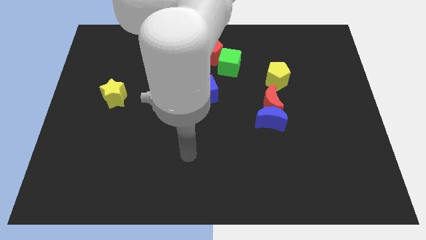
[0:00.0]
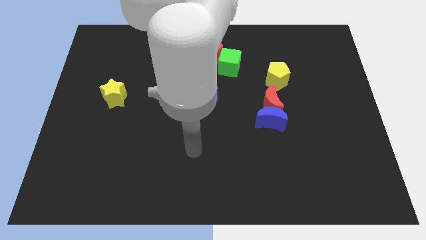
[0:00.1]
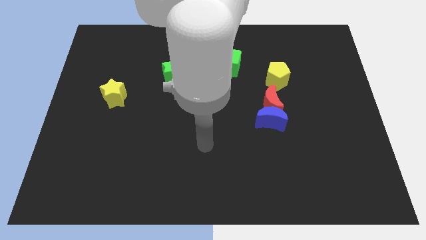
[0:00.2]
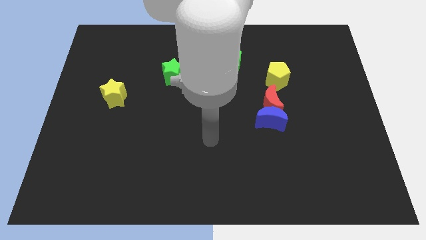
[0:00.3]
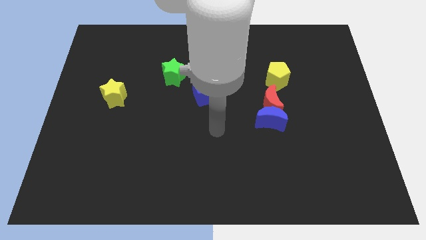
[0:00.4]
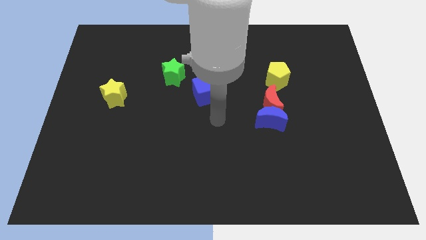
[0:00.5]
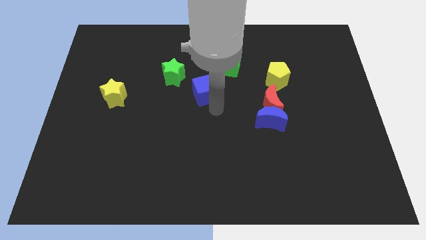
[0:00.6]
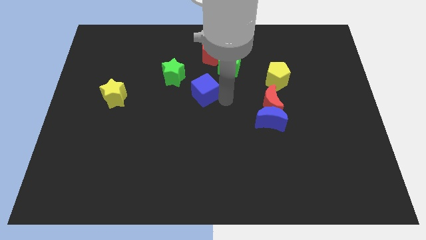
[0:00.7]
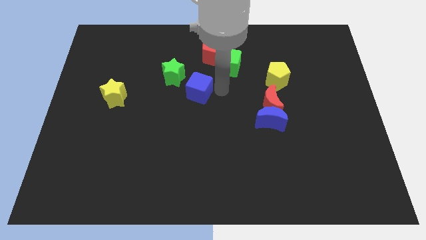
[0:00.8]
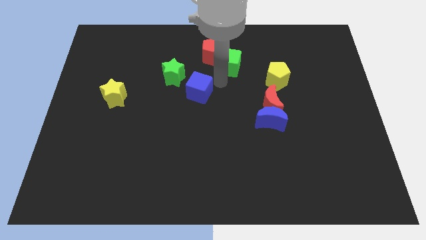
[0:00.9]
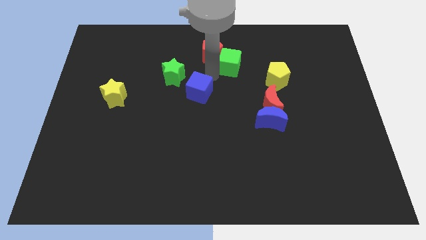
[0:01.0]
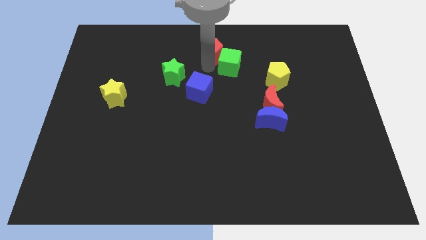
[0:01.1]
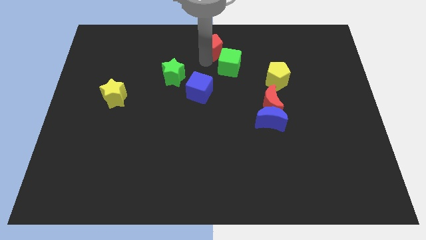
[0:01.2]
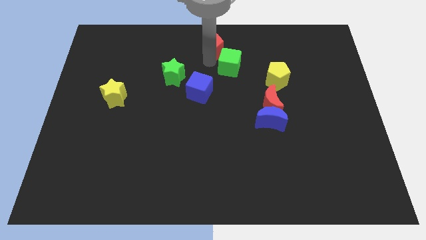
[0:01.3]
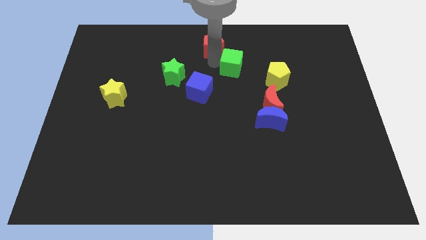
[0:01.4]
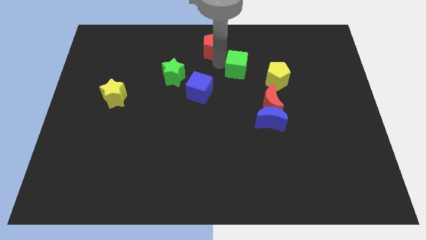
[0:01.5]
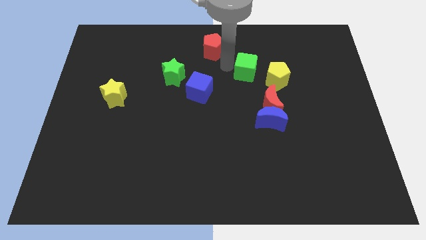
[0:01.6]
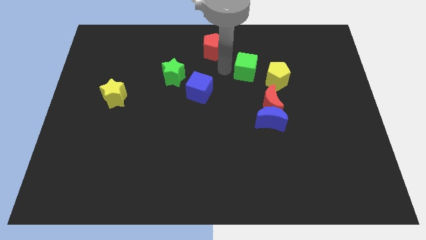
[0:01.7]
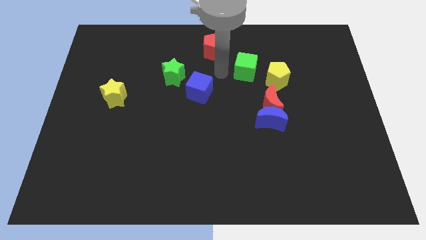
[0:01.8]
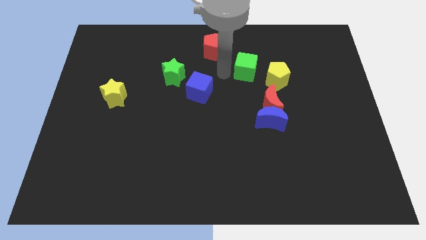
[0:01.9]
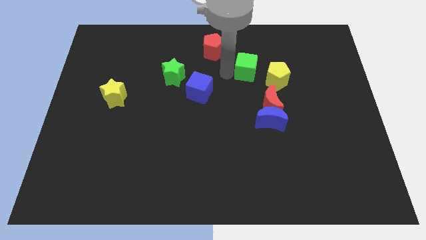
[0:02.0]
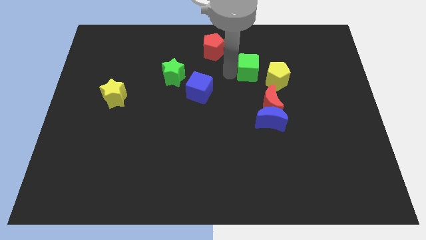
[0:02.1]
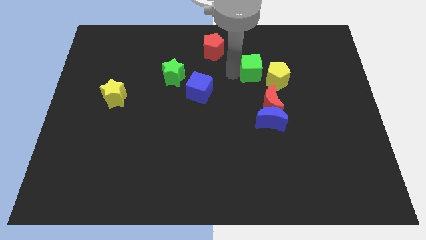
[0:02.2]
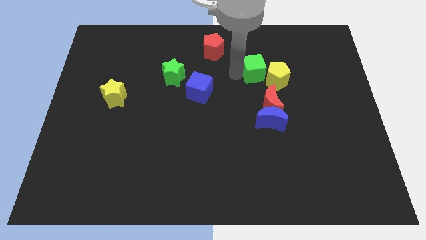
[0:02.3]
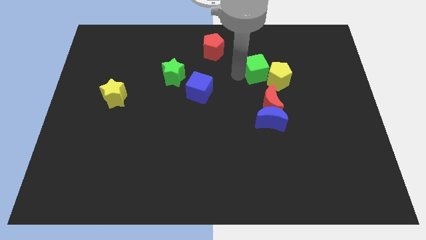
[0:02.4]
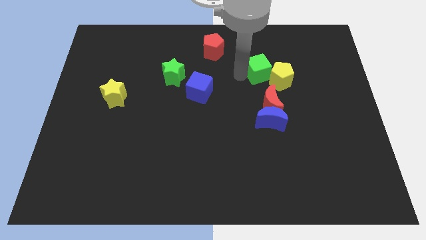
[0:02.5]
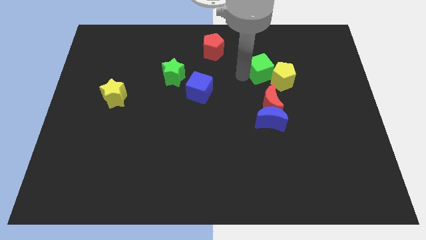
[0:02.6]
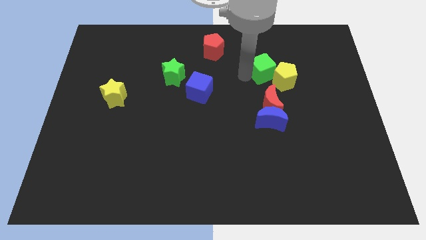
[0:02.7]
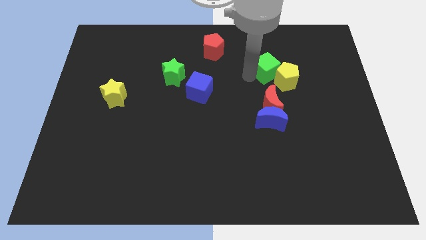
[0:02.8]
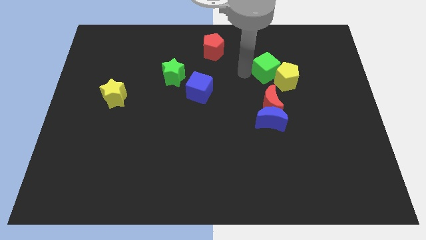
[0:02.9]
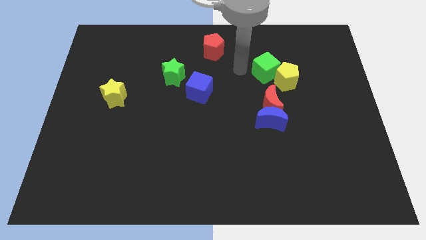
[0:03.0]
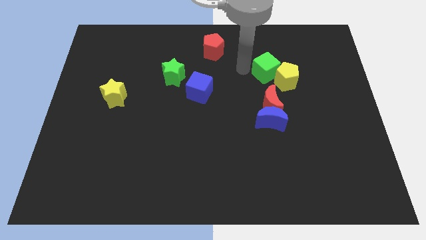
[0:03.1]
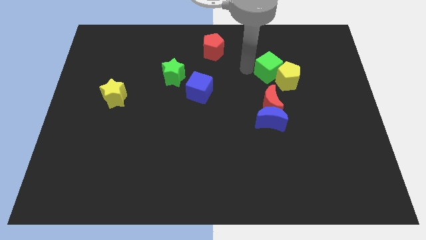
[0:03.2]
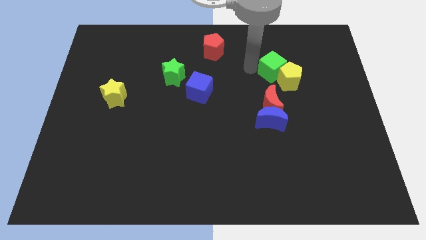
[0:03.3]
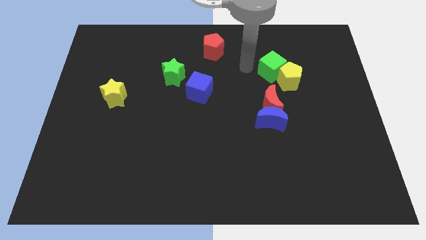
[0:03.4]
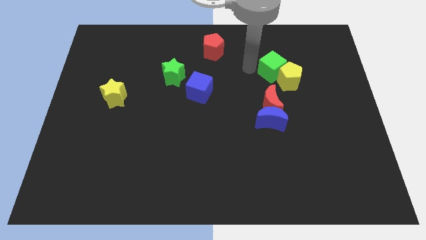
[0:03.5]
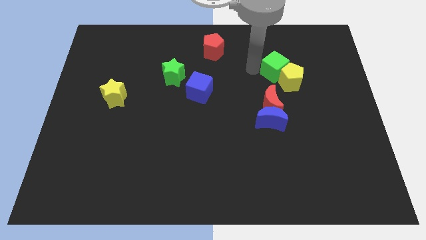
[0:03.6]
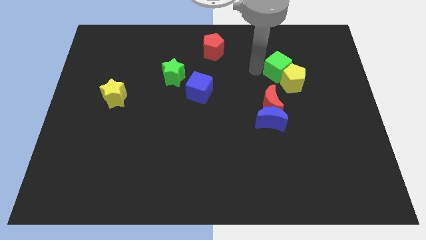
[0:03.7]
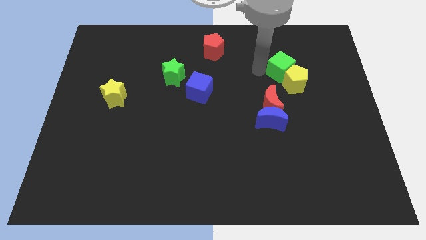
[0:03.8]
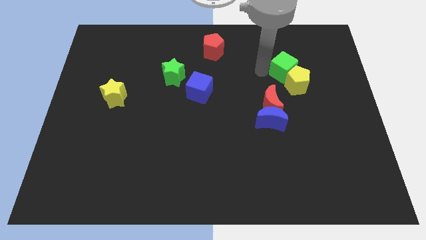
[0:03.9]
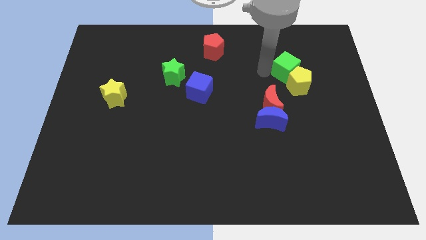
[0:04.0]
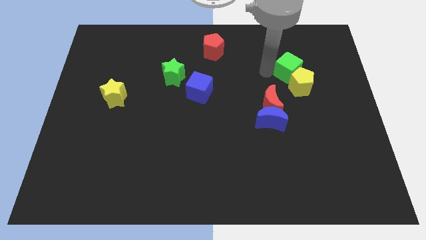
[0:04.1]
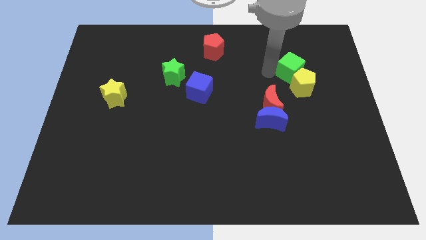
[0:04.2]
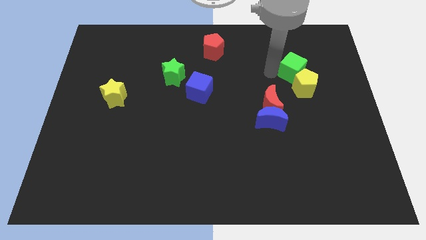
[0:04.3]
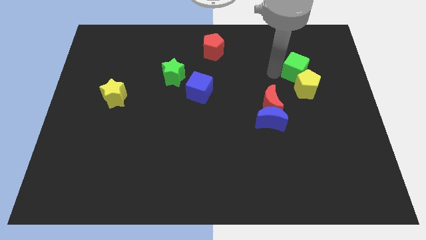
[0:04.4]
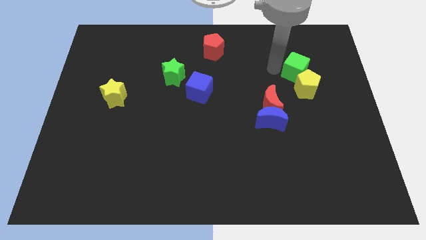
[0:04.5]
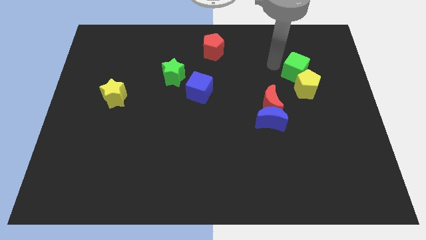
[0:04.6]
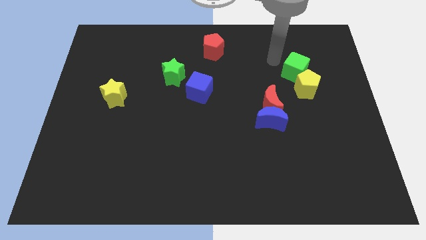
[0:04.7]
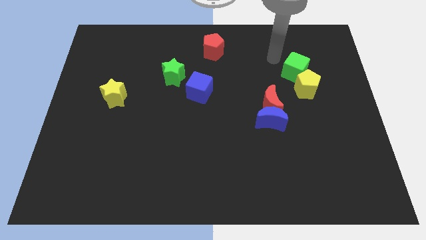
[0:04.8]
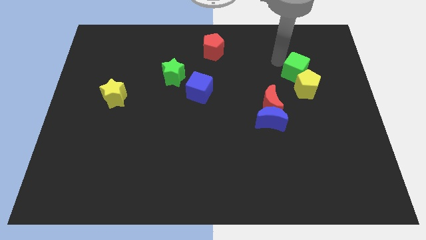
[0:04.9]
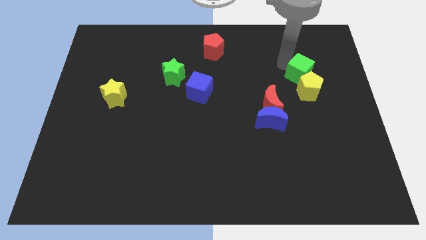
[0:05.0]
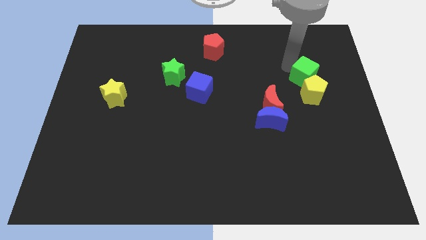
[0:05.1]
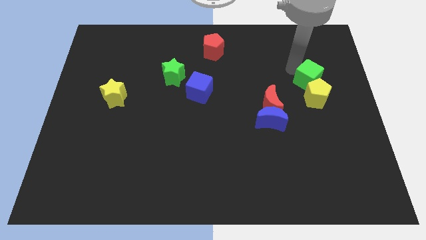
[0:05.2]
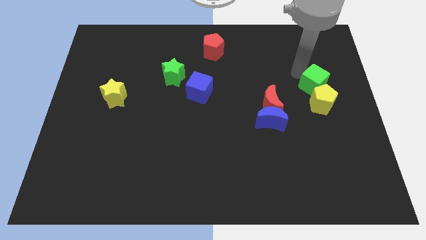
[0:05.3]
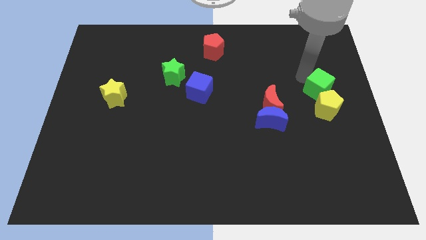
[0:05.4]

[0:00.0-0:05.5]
push the green cube to the center right

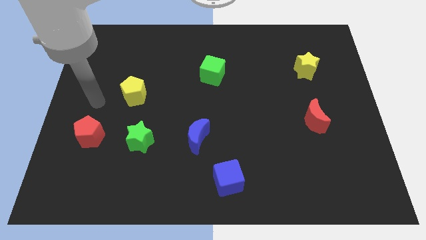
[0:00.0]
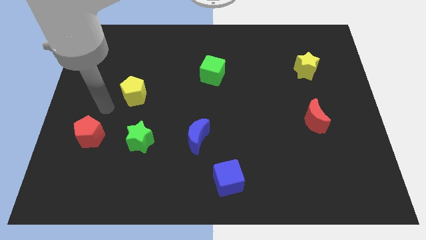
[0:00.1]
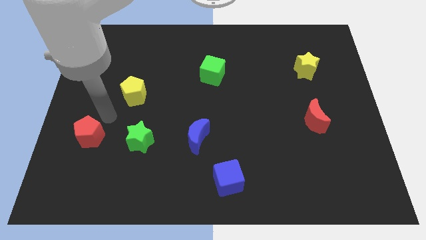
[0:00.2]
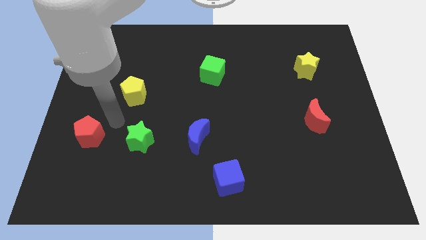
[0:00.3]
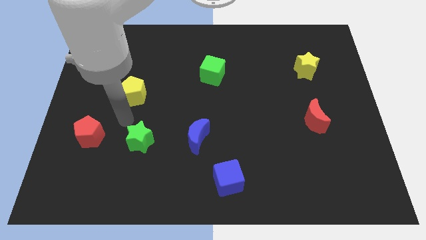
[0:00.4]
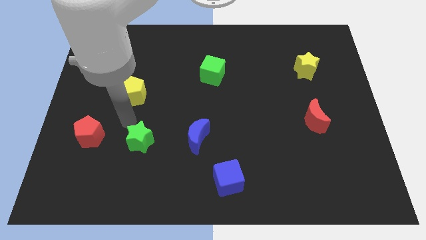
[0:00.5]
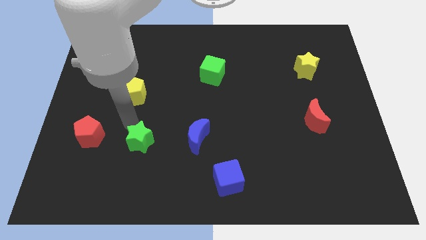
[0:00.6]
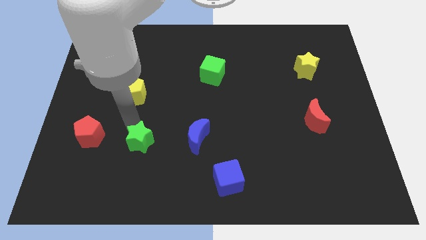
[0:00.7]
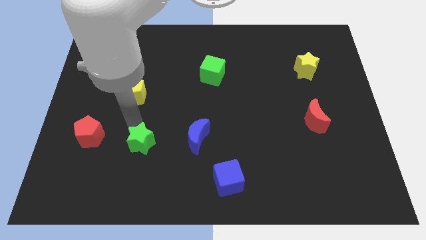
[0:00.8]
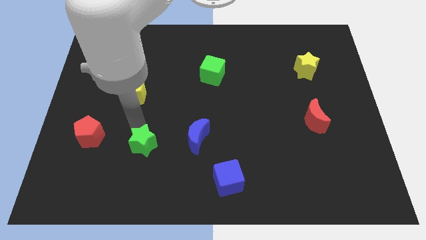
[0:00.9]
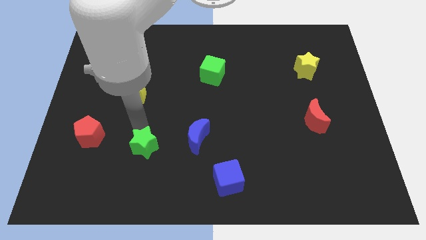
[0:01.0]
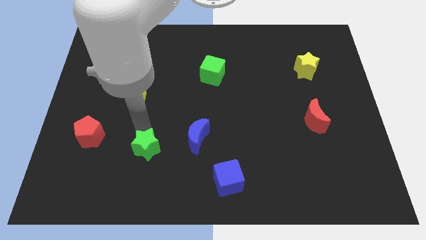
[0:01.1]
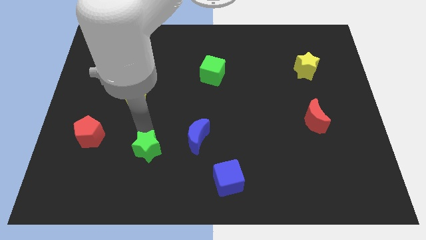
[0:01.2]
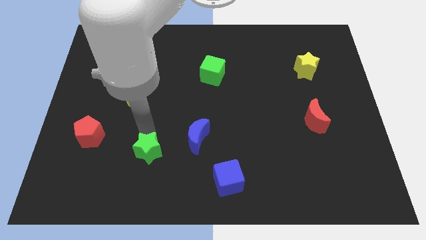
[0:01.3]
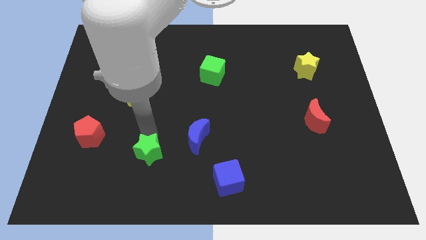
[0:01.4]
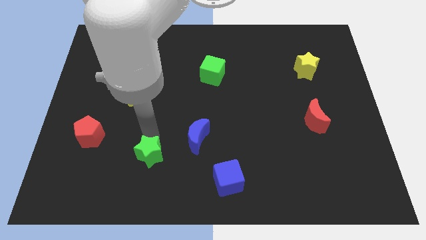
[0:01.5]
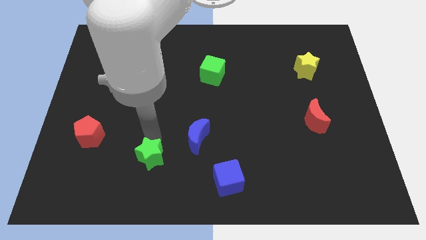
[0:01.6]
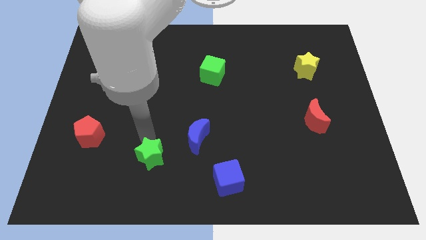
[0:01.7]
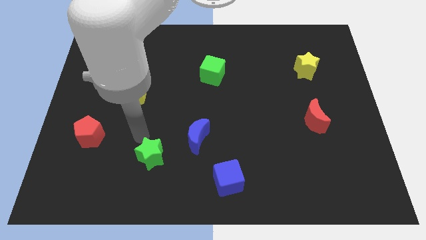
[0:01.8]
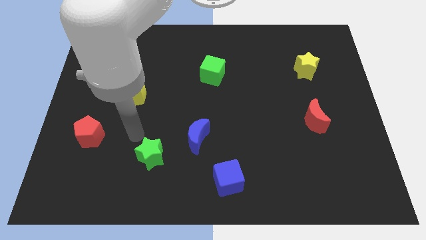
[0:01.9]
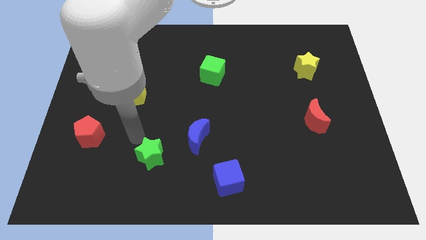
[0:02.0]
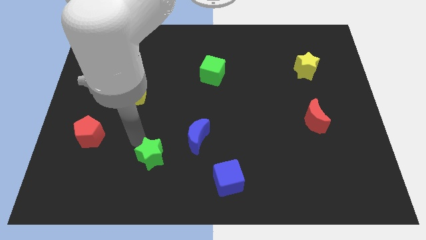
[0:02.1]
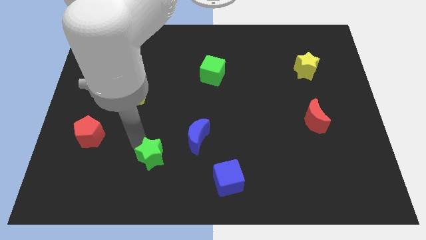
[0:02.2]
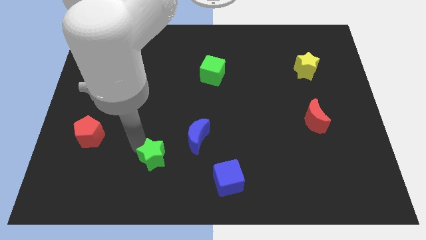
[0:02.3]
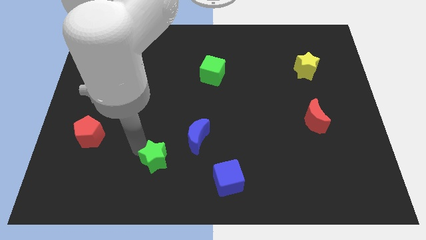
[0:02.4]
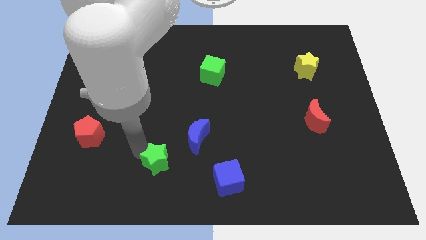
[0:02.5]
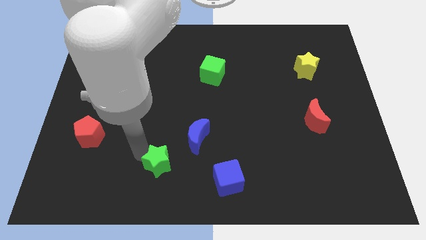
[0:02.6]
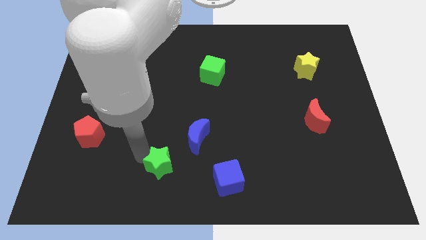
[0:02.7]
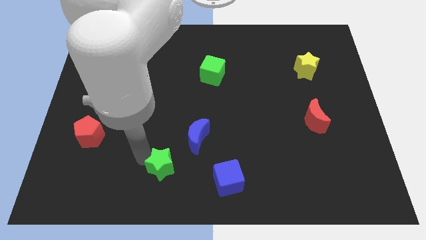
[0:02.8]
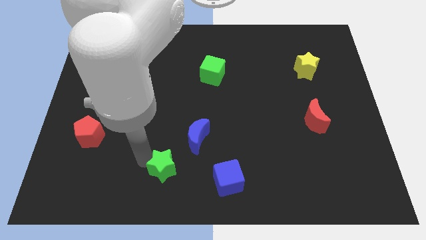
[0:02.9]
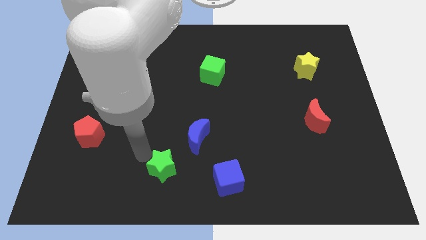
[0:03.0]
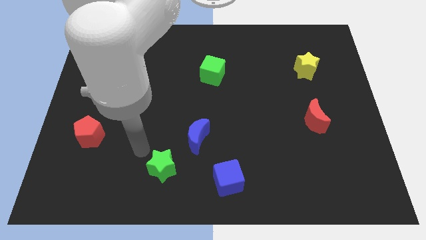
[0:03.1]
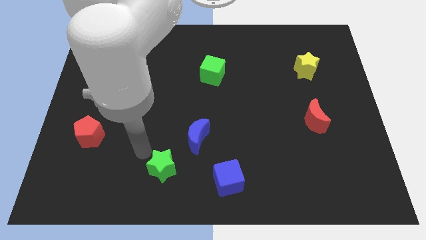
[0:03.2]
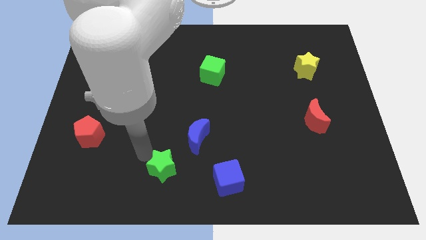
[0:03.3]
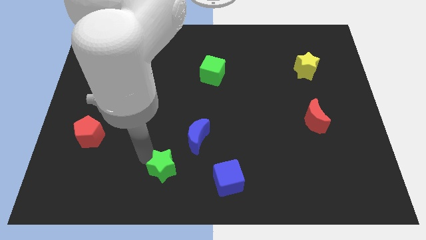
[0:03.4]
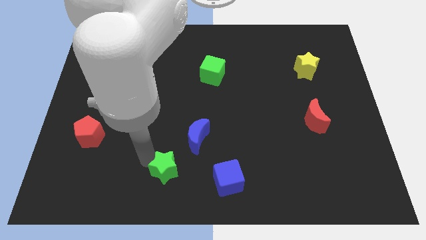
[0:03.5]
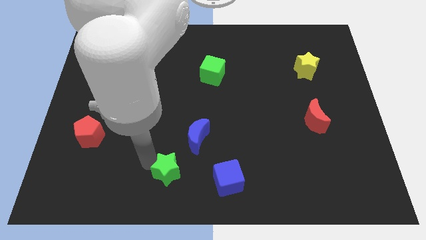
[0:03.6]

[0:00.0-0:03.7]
push the green star to the bottom side
